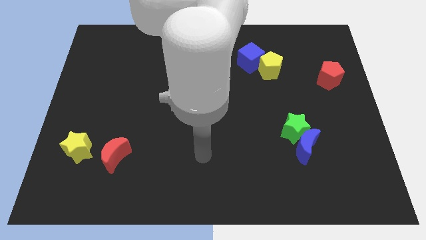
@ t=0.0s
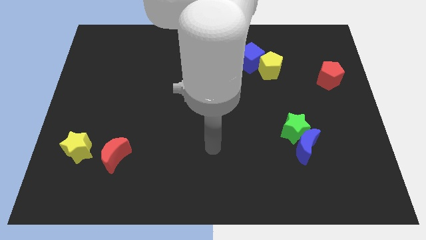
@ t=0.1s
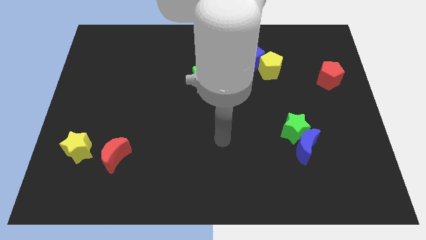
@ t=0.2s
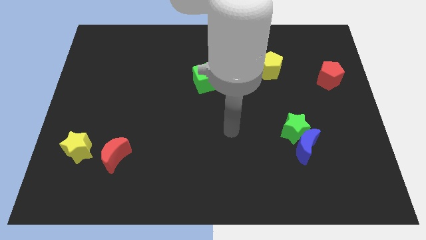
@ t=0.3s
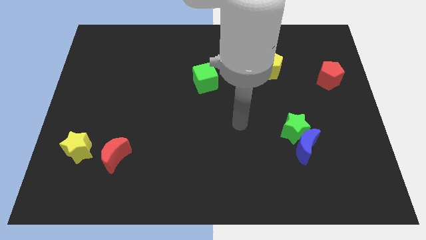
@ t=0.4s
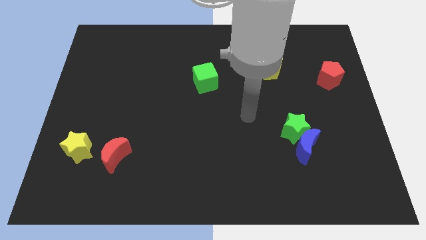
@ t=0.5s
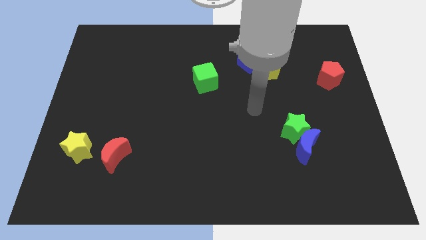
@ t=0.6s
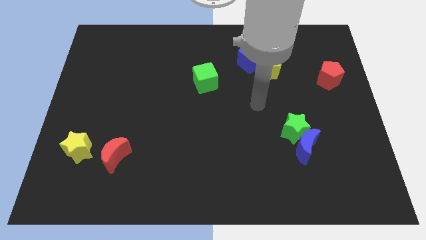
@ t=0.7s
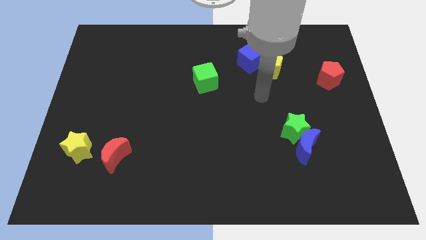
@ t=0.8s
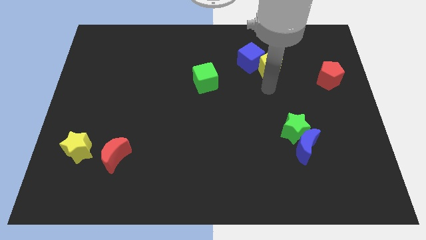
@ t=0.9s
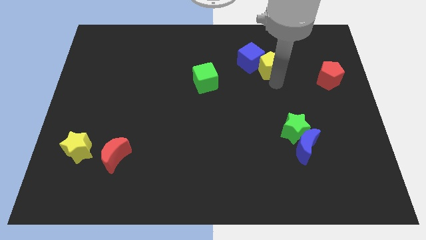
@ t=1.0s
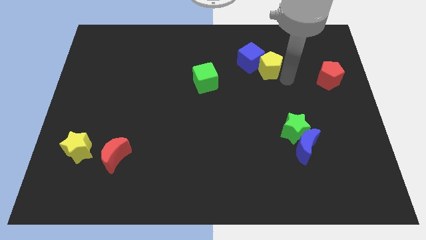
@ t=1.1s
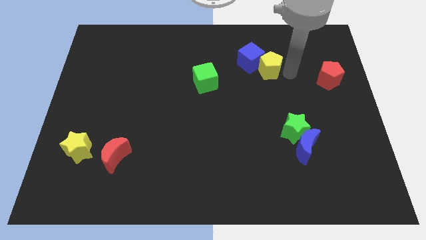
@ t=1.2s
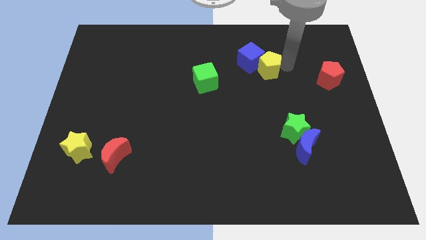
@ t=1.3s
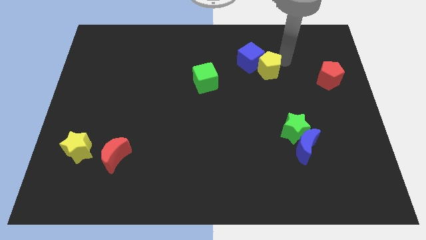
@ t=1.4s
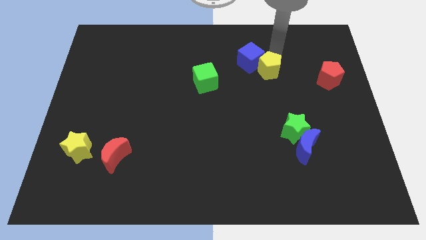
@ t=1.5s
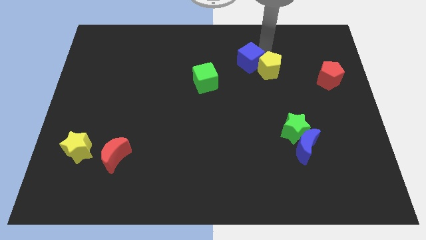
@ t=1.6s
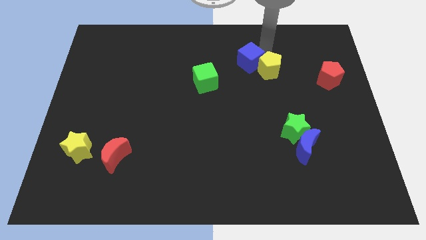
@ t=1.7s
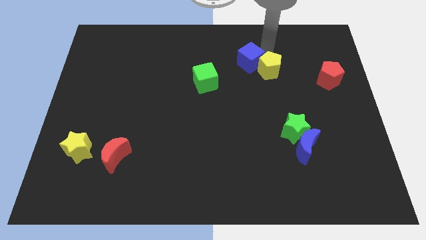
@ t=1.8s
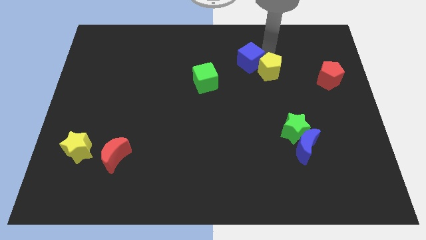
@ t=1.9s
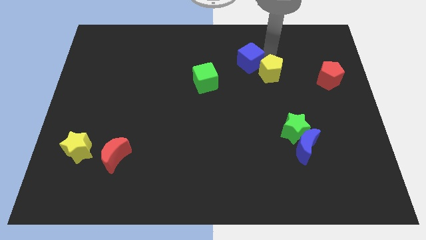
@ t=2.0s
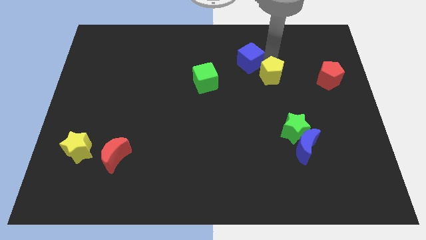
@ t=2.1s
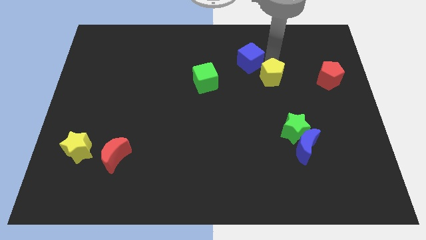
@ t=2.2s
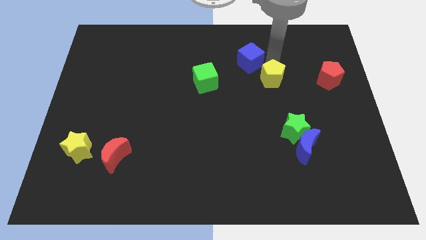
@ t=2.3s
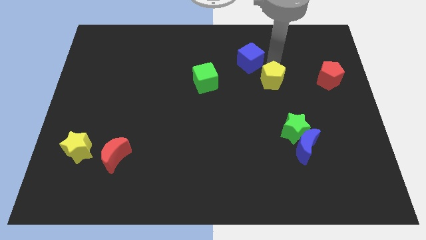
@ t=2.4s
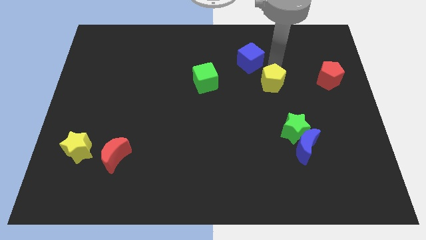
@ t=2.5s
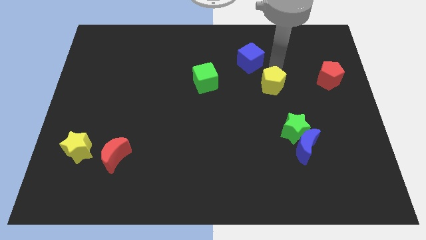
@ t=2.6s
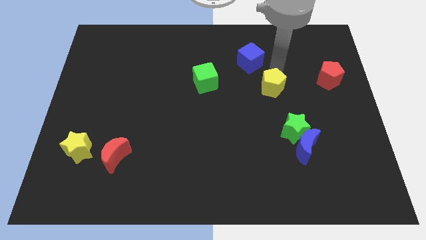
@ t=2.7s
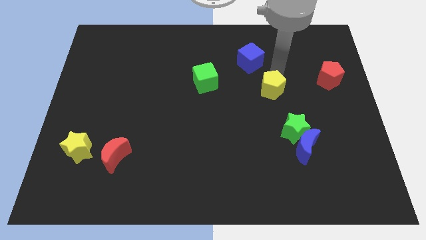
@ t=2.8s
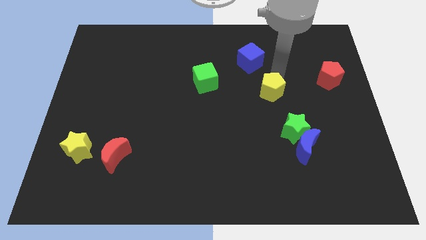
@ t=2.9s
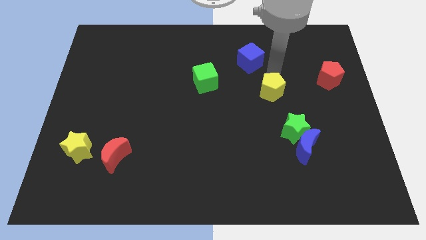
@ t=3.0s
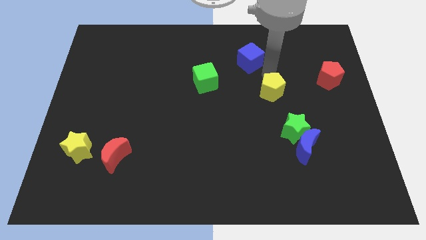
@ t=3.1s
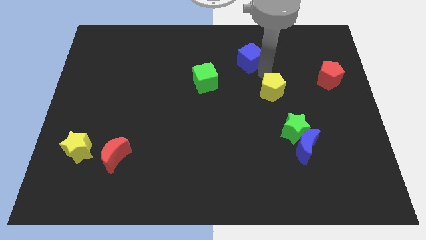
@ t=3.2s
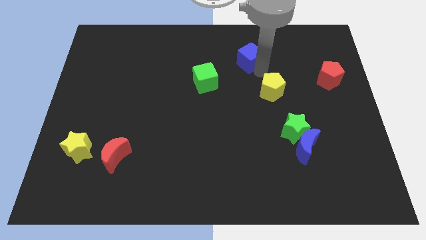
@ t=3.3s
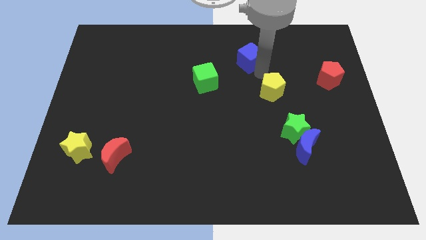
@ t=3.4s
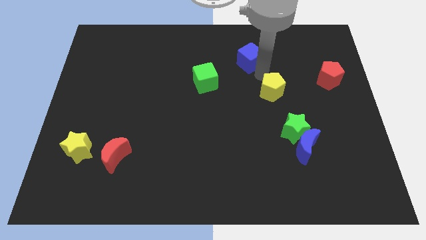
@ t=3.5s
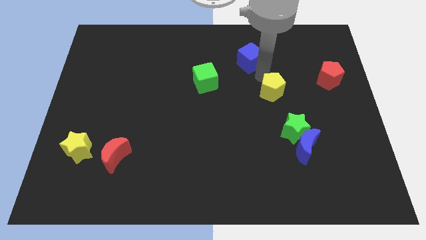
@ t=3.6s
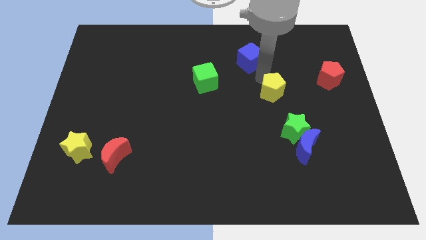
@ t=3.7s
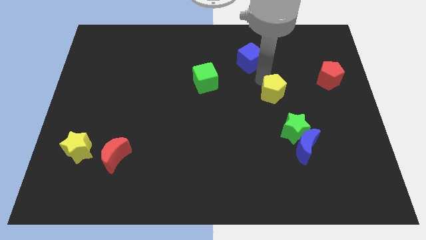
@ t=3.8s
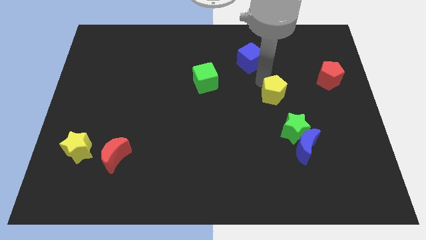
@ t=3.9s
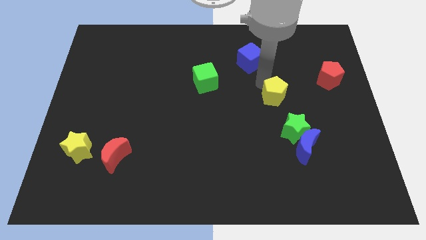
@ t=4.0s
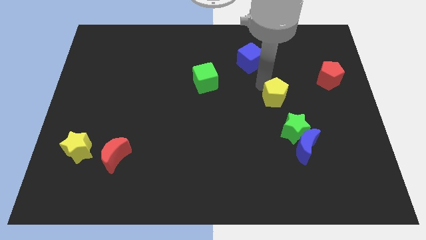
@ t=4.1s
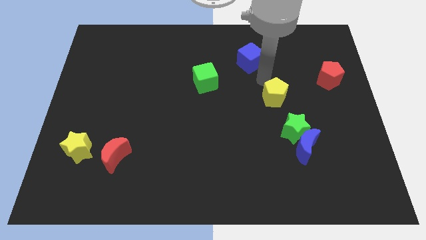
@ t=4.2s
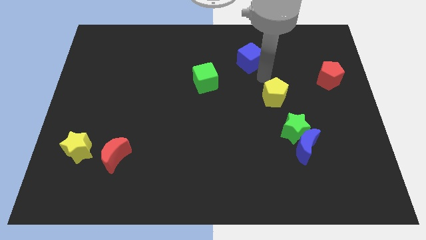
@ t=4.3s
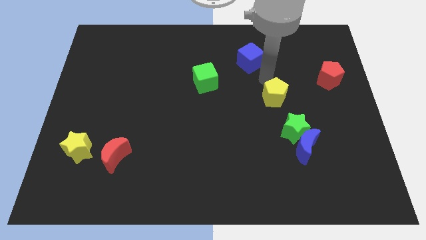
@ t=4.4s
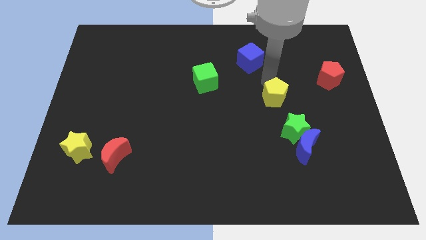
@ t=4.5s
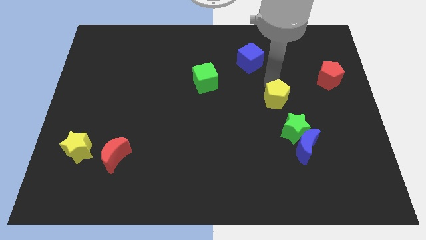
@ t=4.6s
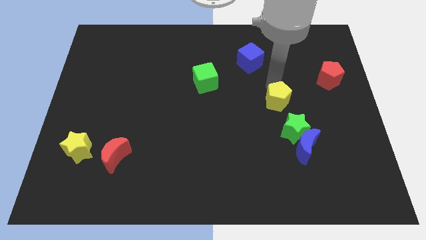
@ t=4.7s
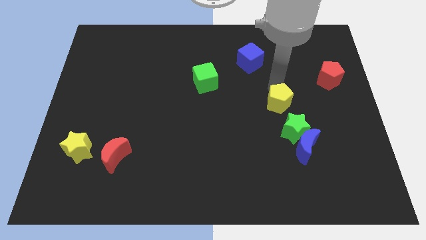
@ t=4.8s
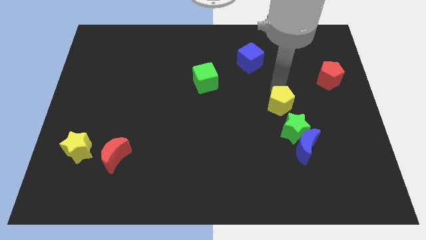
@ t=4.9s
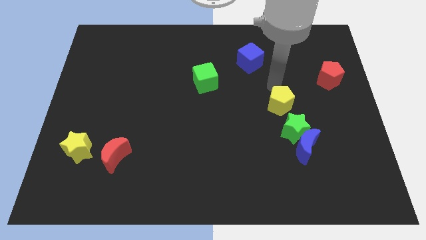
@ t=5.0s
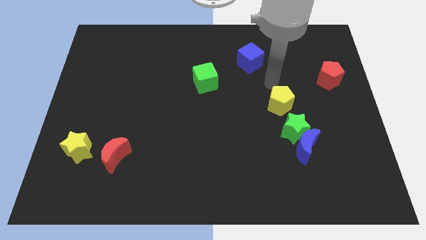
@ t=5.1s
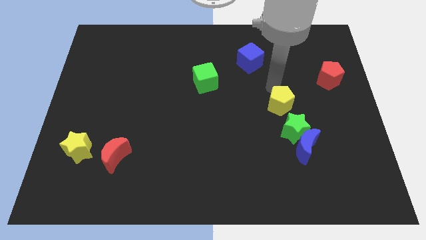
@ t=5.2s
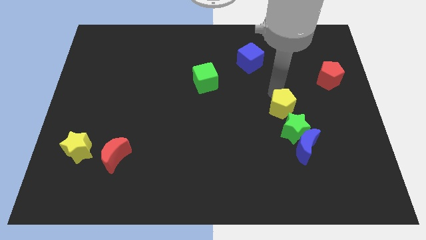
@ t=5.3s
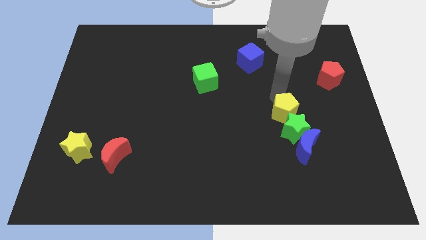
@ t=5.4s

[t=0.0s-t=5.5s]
move the yellow pentagon to the green star

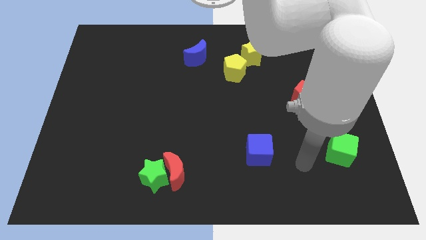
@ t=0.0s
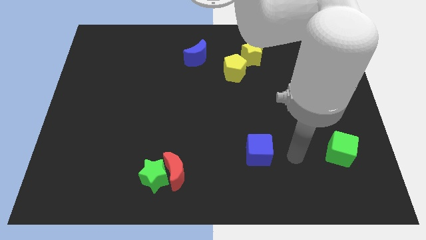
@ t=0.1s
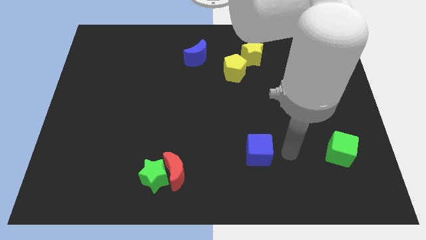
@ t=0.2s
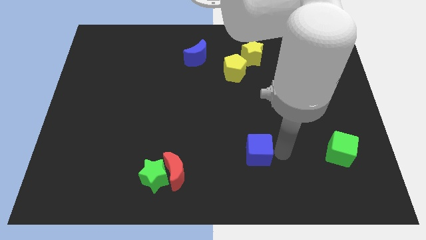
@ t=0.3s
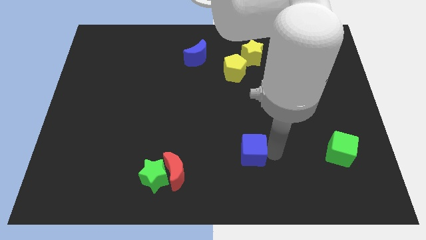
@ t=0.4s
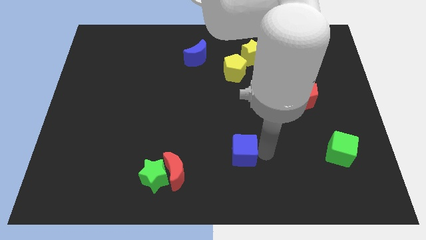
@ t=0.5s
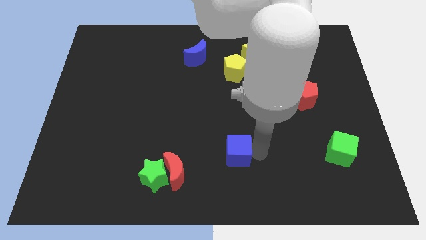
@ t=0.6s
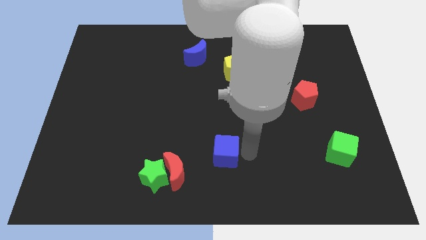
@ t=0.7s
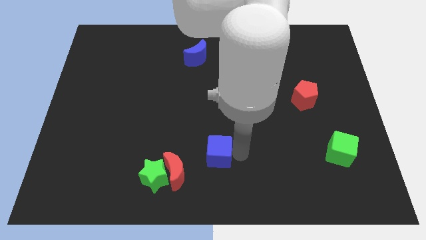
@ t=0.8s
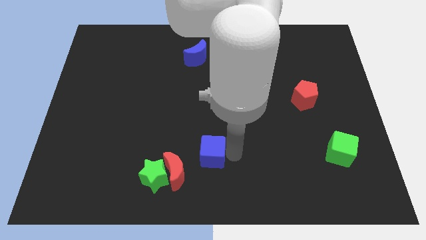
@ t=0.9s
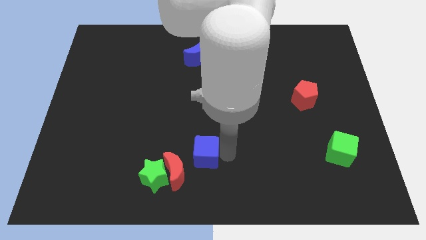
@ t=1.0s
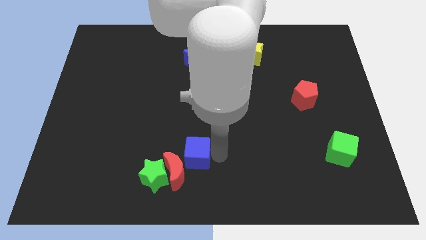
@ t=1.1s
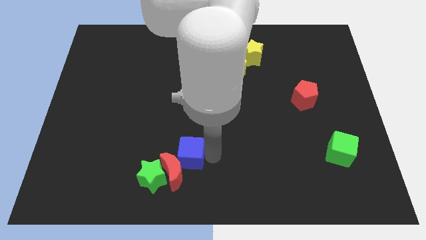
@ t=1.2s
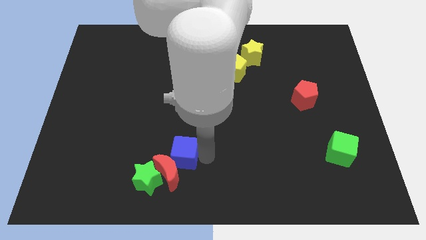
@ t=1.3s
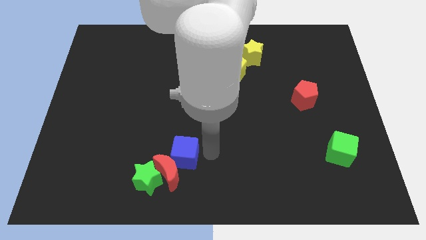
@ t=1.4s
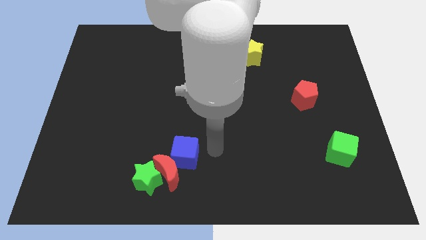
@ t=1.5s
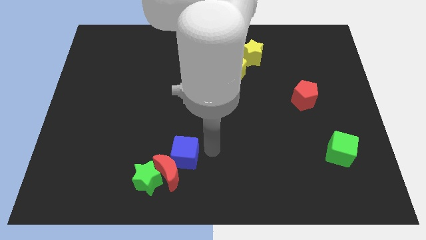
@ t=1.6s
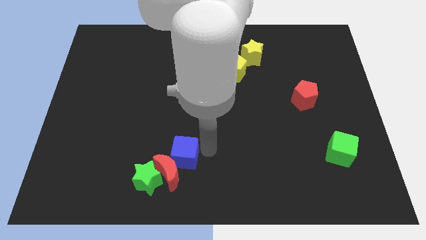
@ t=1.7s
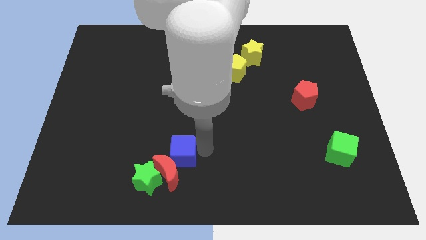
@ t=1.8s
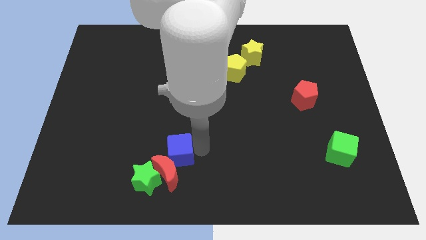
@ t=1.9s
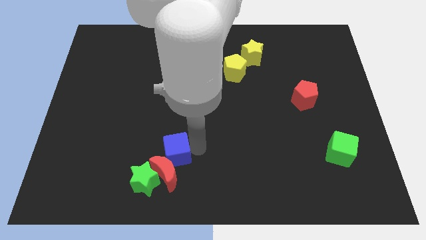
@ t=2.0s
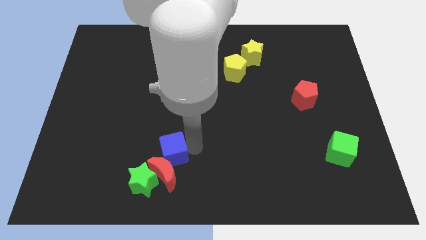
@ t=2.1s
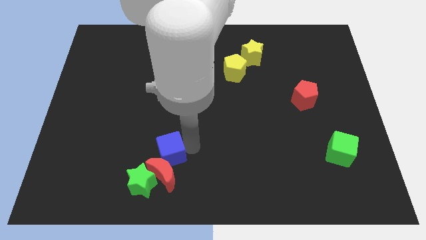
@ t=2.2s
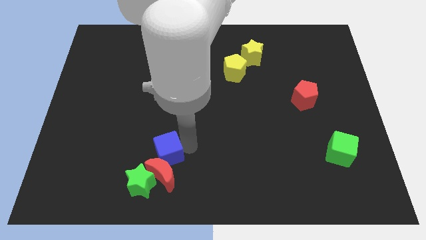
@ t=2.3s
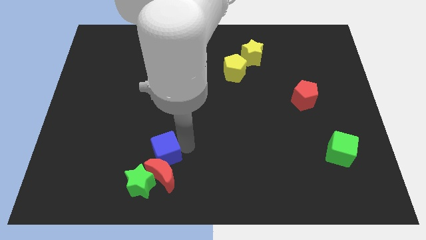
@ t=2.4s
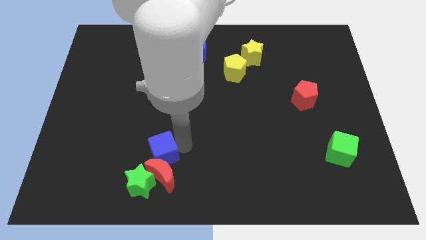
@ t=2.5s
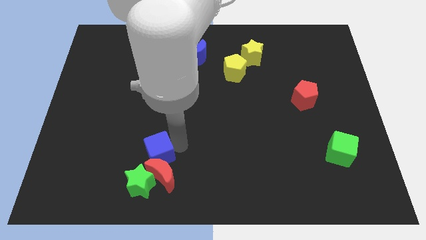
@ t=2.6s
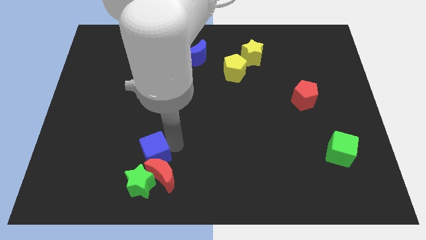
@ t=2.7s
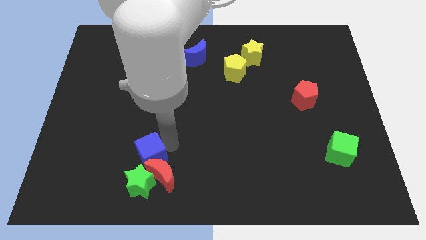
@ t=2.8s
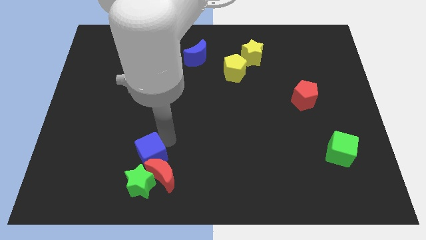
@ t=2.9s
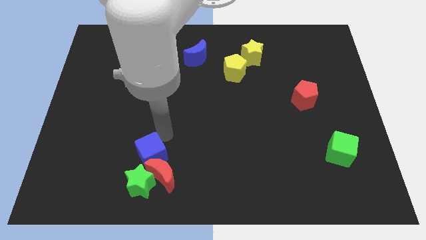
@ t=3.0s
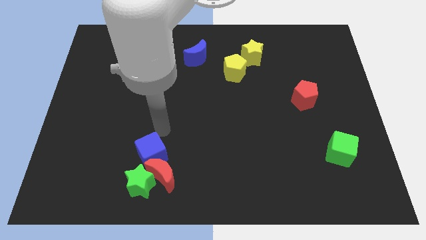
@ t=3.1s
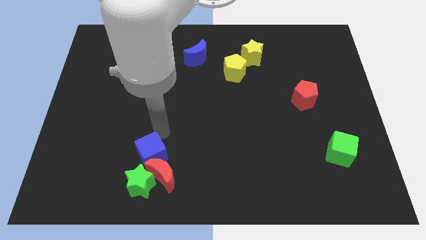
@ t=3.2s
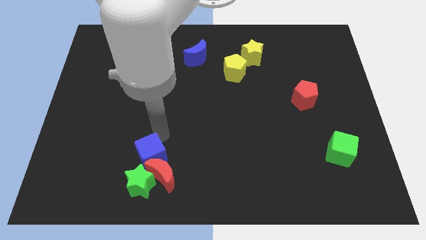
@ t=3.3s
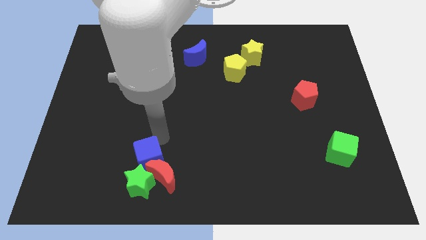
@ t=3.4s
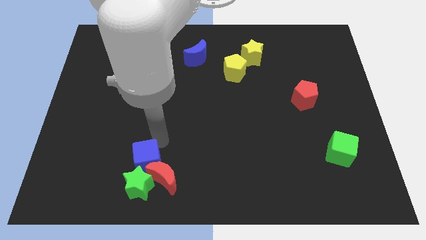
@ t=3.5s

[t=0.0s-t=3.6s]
put the blue cube close to the green star
